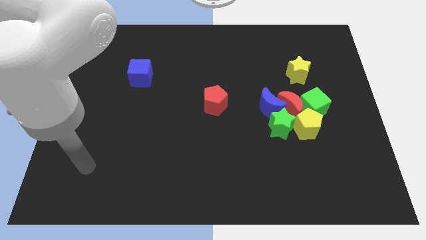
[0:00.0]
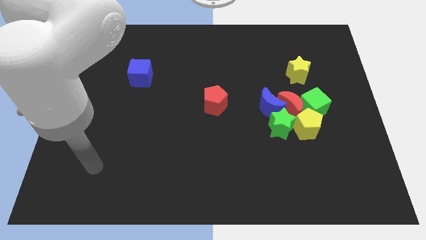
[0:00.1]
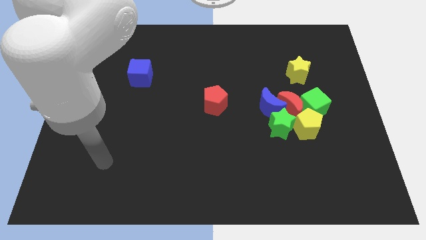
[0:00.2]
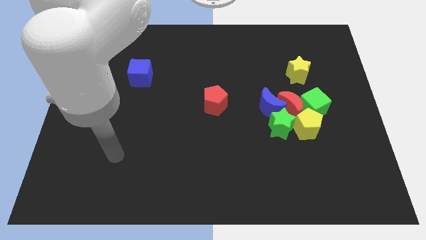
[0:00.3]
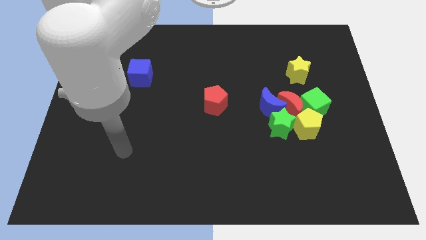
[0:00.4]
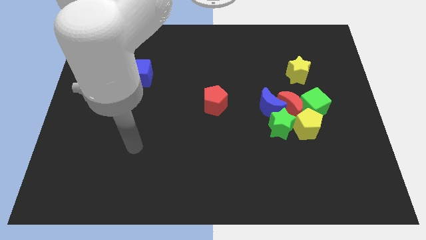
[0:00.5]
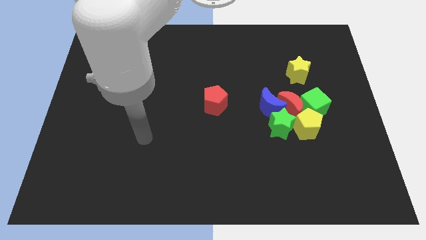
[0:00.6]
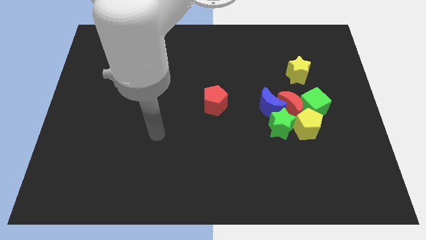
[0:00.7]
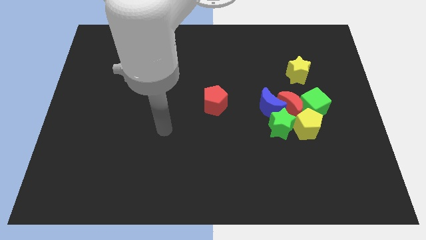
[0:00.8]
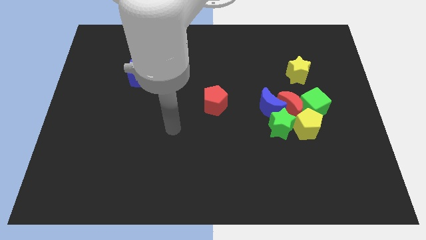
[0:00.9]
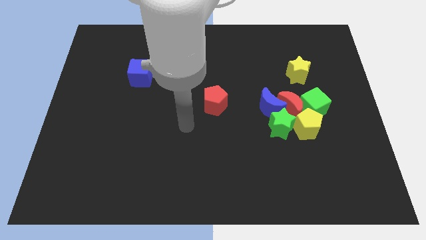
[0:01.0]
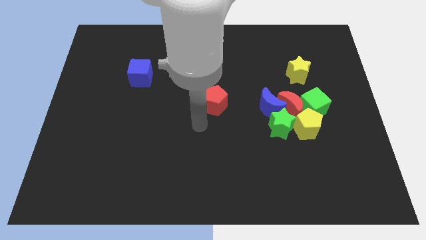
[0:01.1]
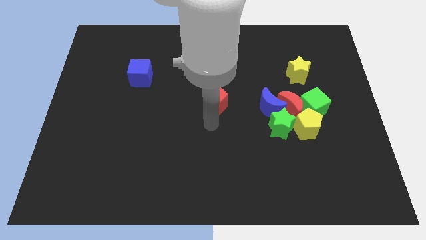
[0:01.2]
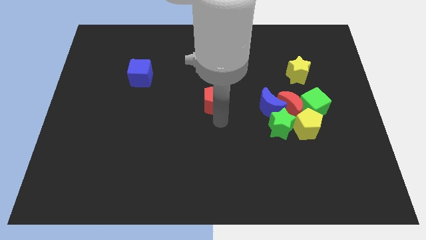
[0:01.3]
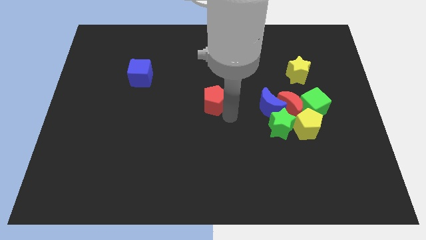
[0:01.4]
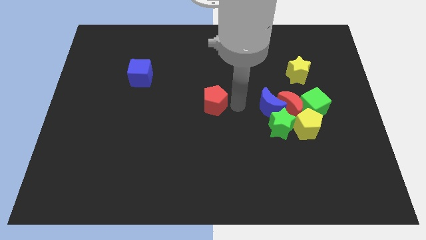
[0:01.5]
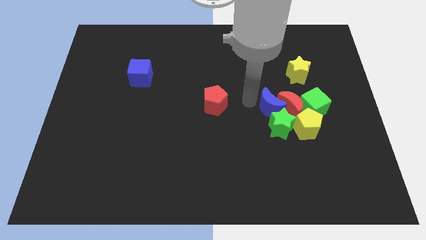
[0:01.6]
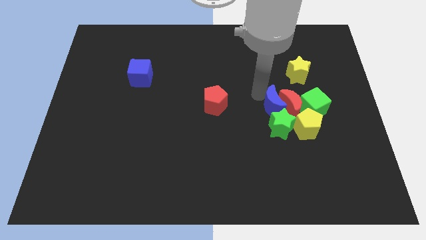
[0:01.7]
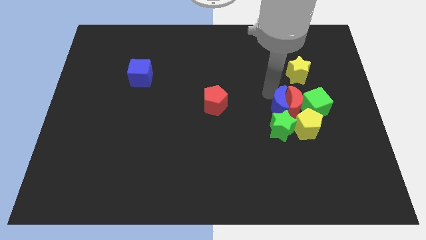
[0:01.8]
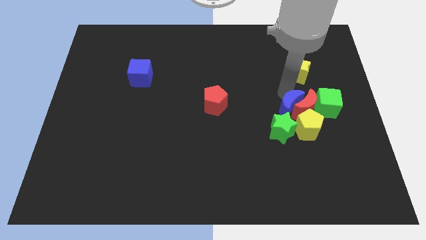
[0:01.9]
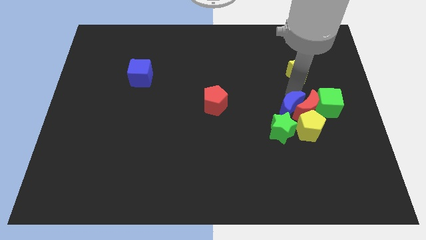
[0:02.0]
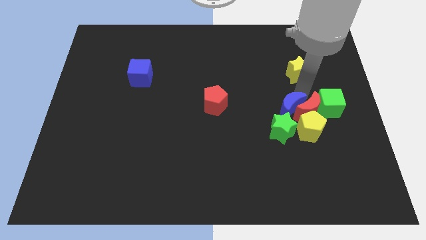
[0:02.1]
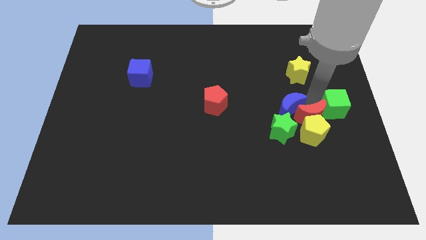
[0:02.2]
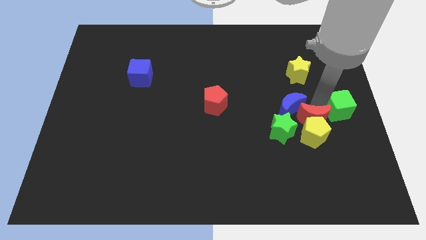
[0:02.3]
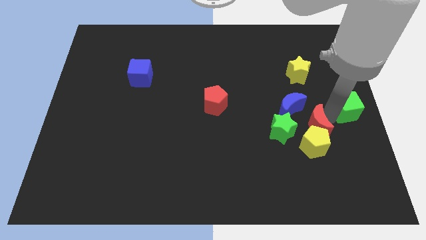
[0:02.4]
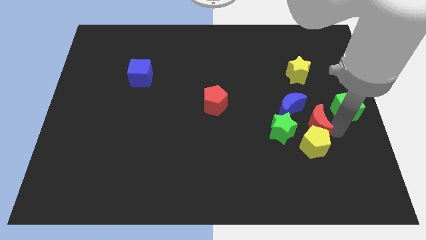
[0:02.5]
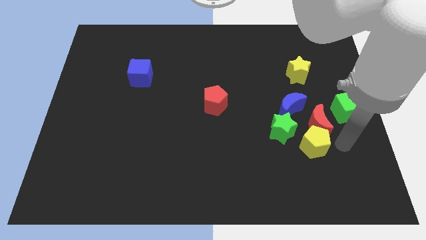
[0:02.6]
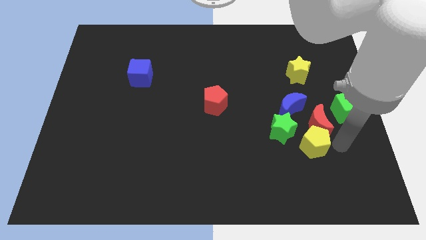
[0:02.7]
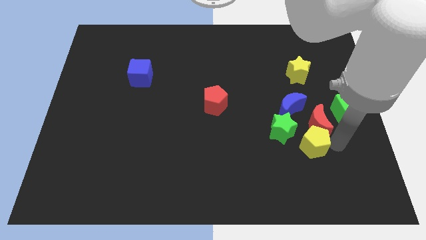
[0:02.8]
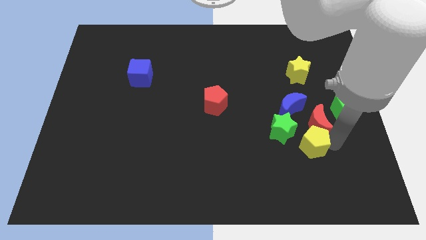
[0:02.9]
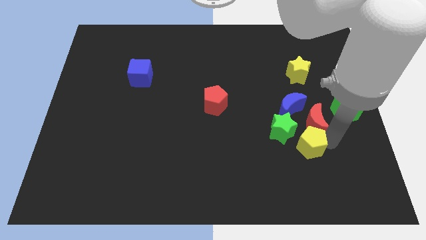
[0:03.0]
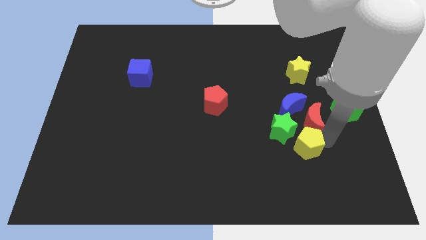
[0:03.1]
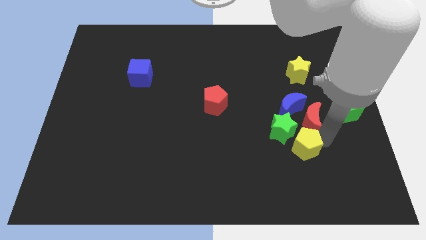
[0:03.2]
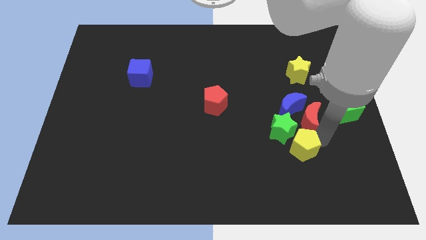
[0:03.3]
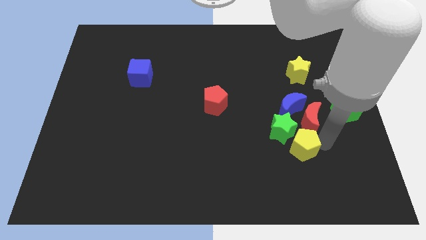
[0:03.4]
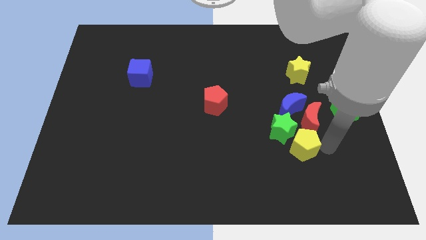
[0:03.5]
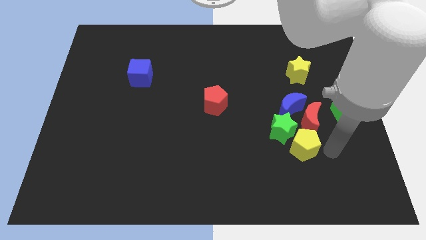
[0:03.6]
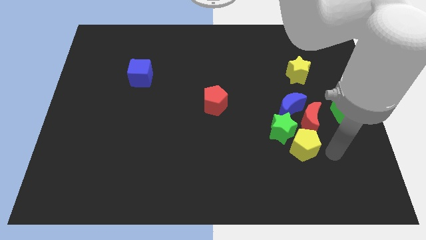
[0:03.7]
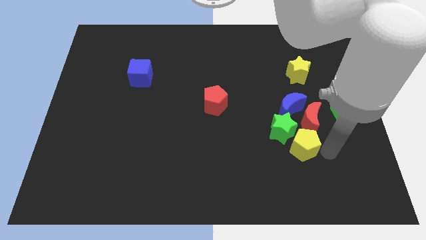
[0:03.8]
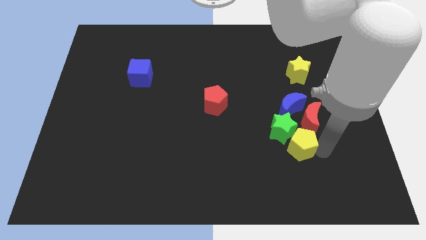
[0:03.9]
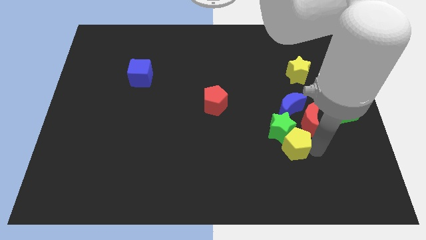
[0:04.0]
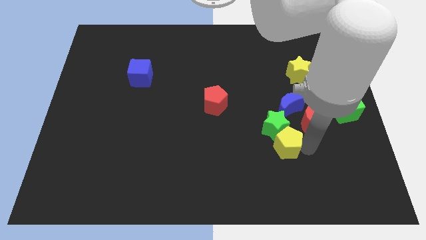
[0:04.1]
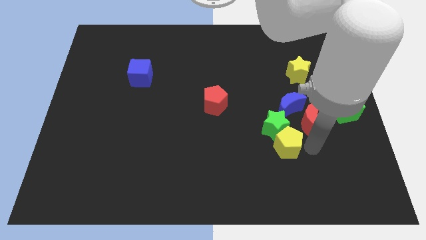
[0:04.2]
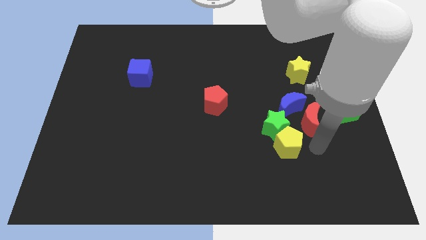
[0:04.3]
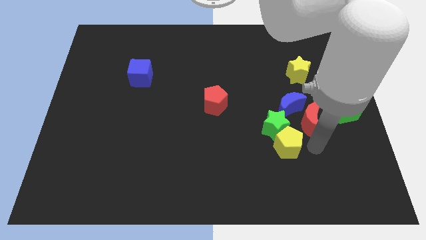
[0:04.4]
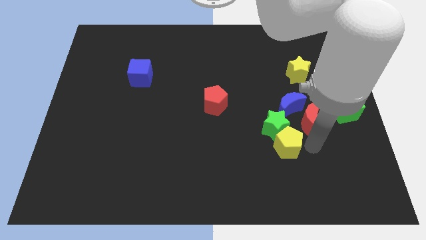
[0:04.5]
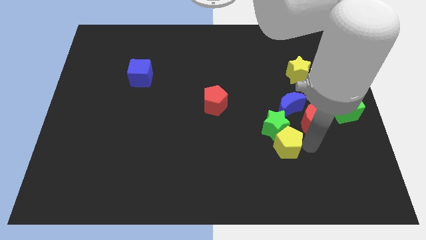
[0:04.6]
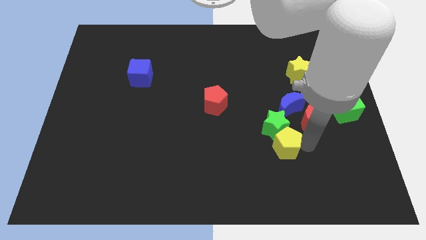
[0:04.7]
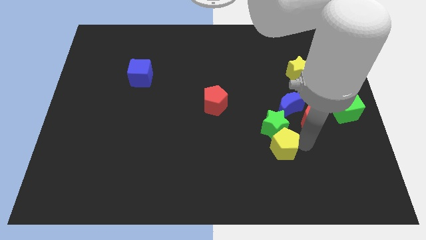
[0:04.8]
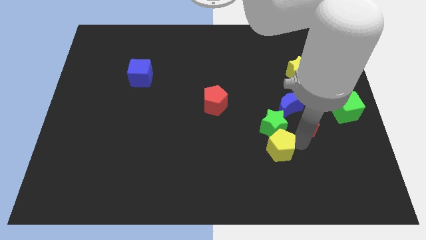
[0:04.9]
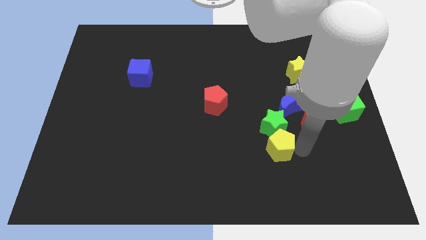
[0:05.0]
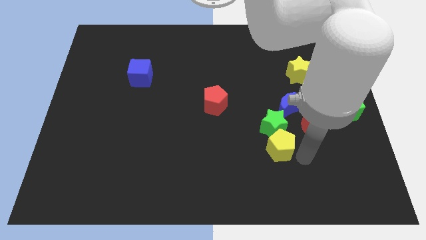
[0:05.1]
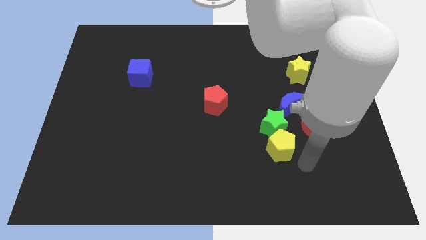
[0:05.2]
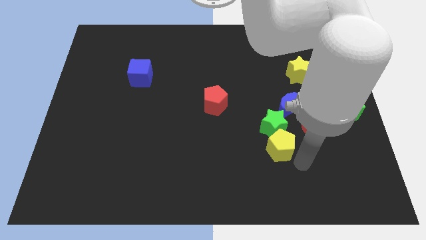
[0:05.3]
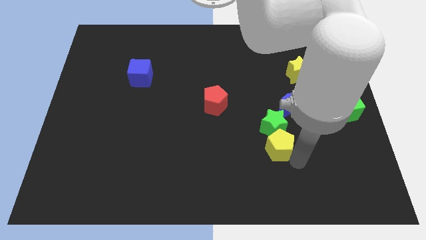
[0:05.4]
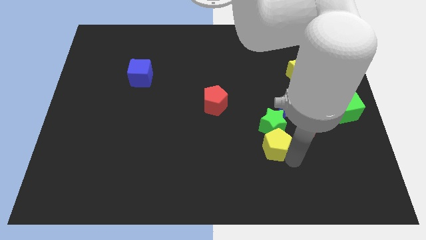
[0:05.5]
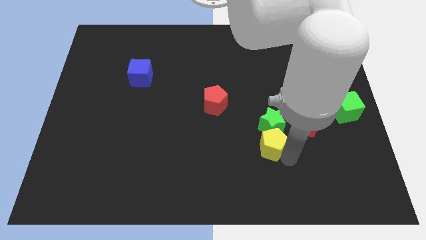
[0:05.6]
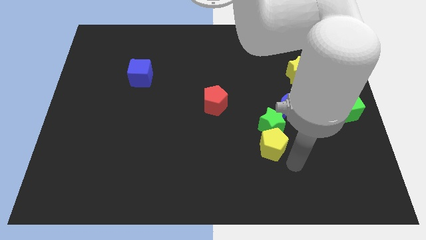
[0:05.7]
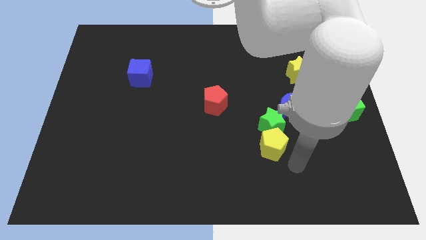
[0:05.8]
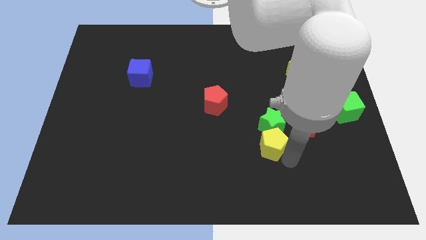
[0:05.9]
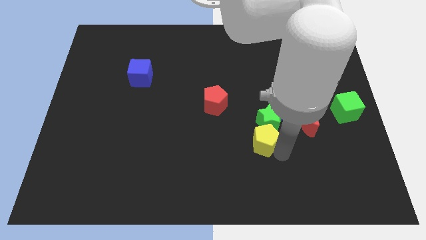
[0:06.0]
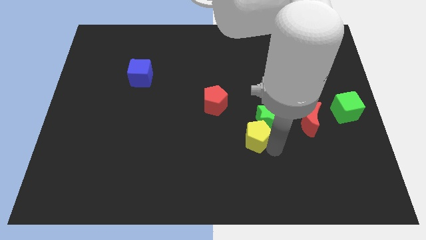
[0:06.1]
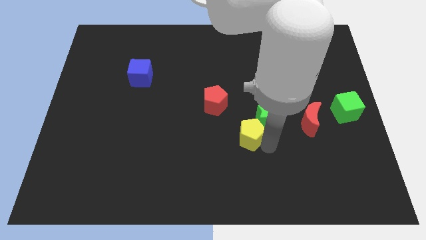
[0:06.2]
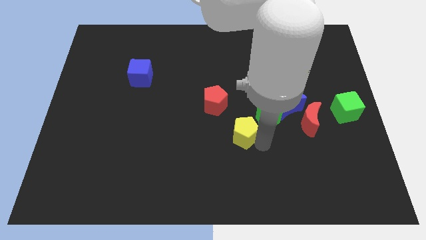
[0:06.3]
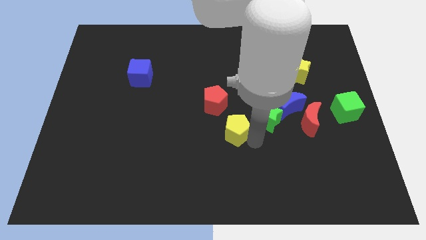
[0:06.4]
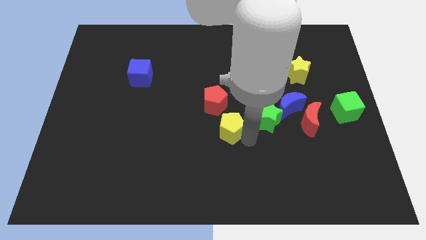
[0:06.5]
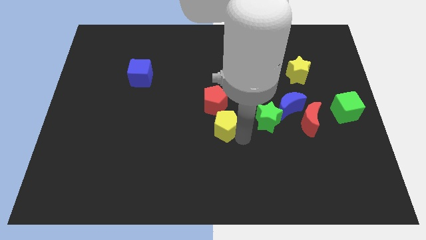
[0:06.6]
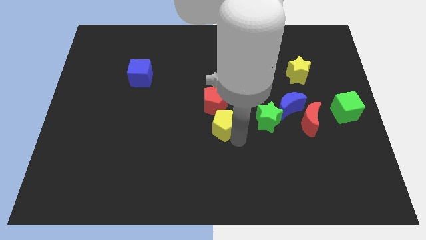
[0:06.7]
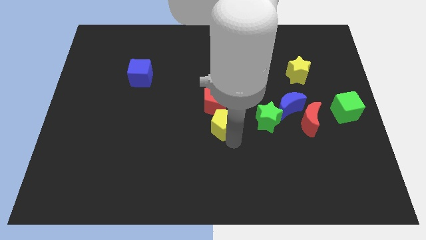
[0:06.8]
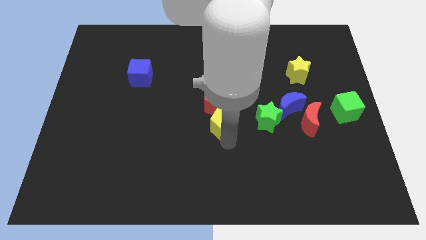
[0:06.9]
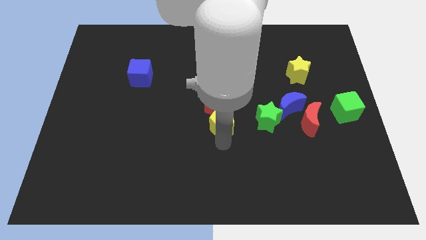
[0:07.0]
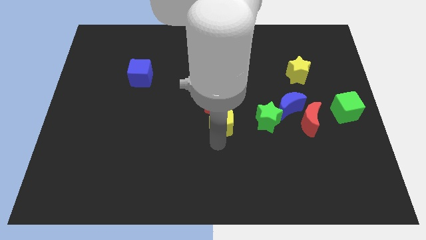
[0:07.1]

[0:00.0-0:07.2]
push the yellow pentagon next to the red pentagon
